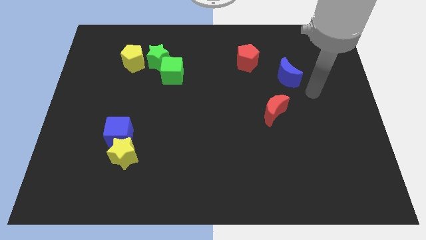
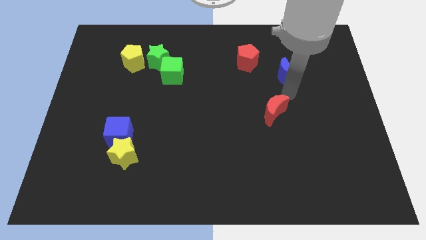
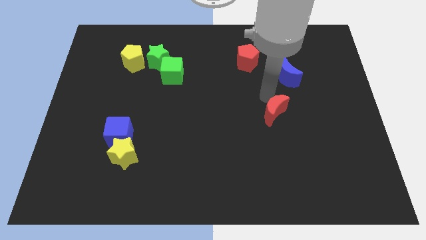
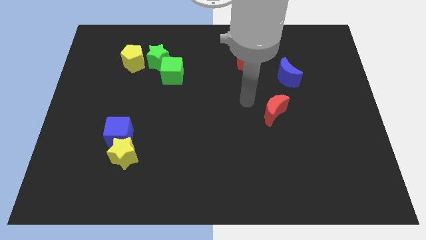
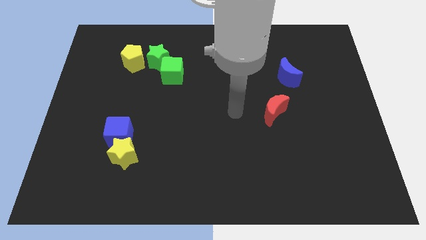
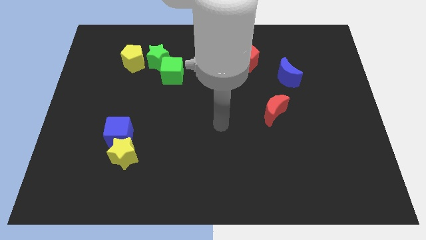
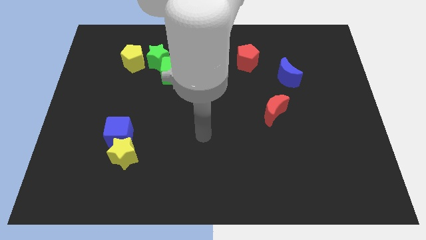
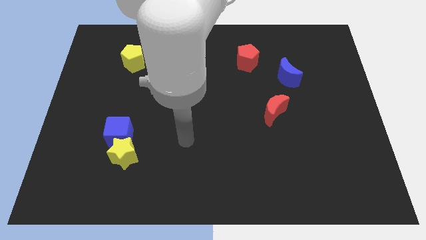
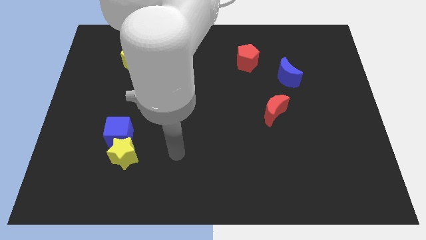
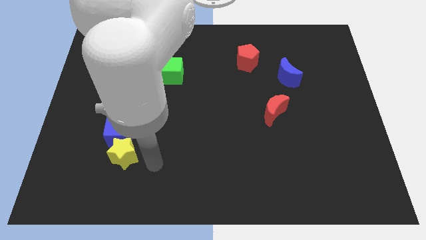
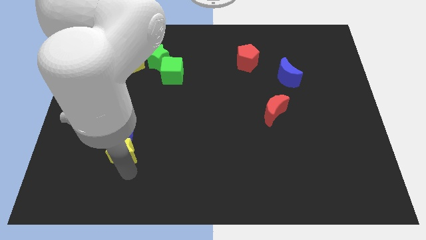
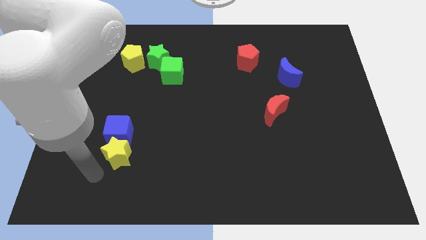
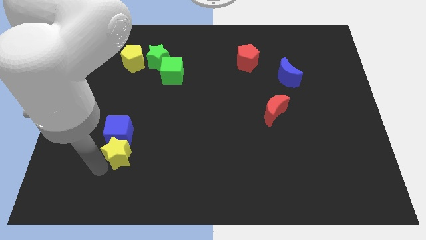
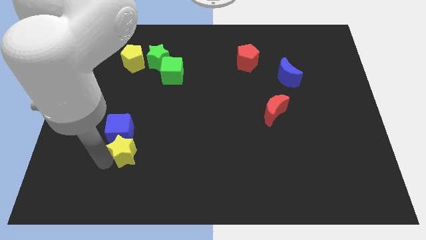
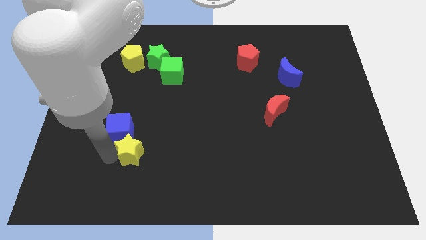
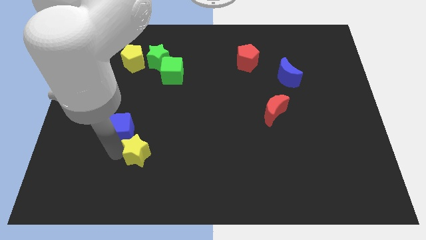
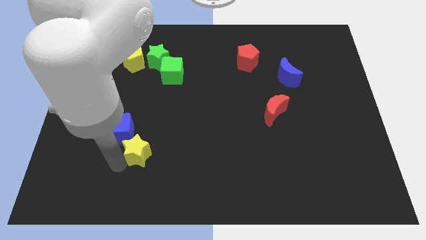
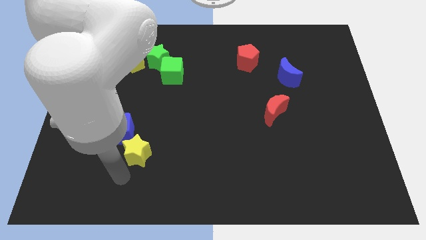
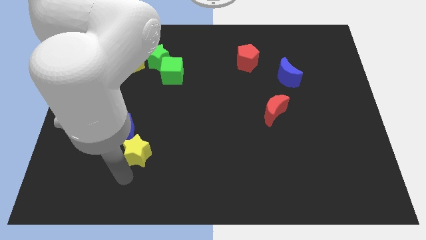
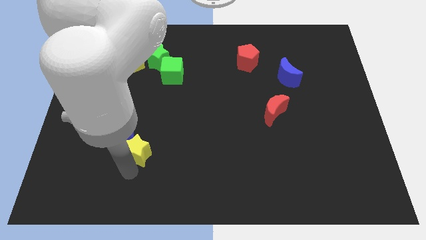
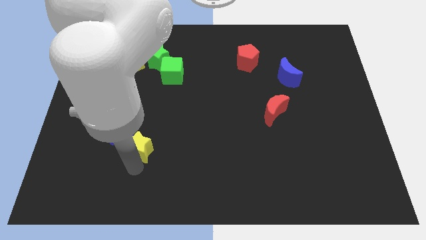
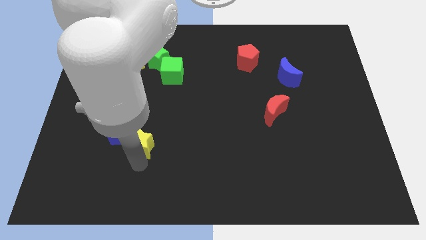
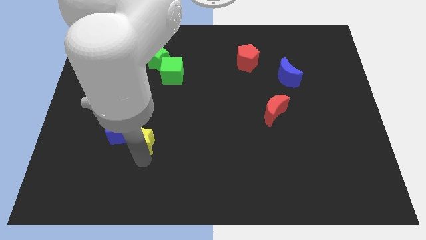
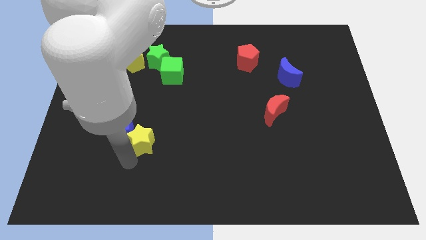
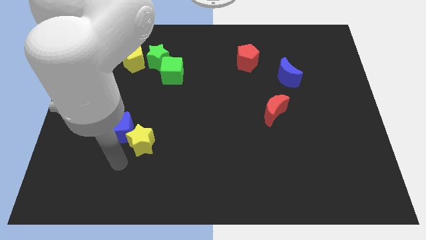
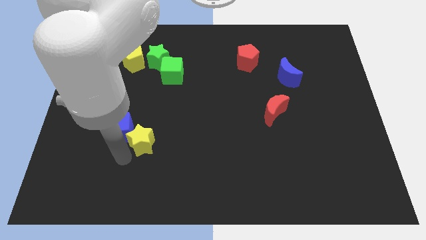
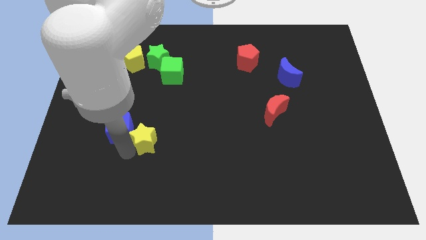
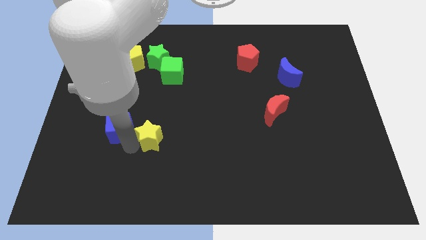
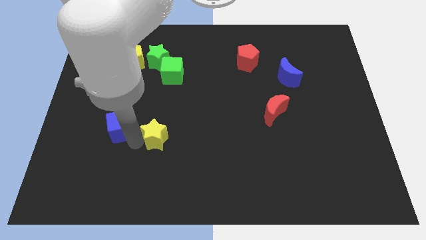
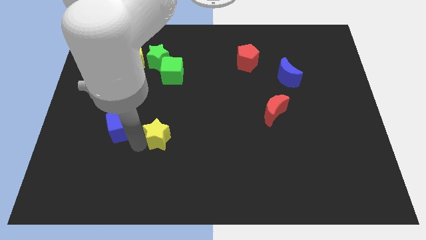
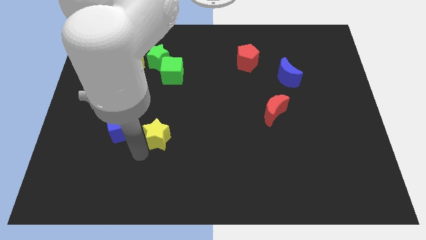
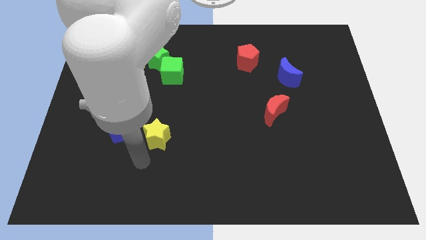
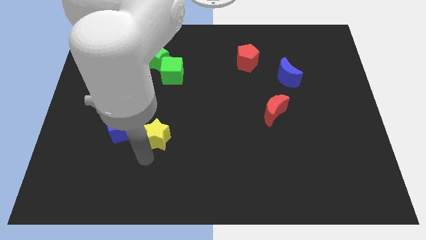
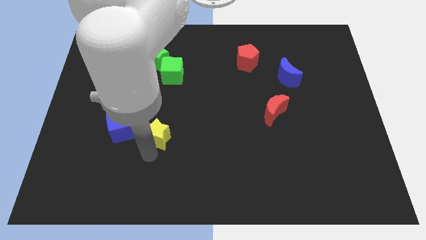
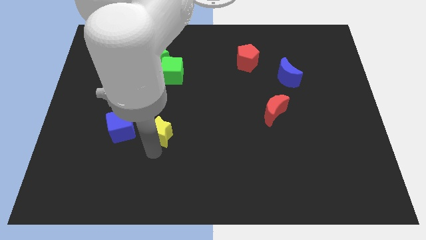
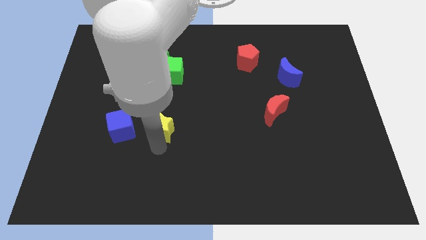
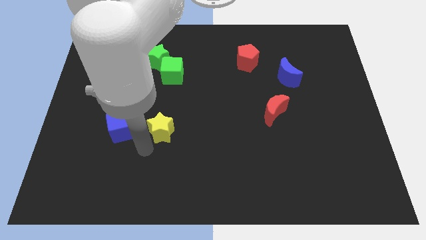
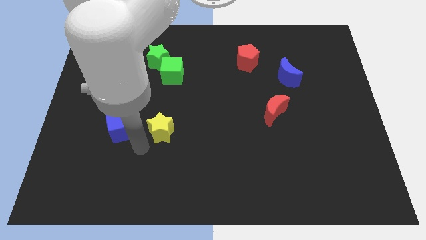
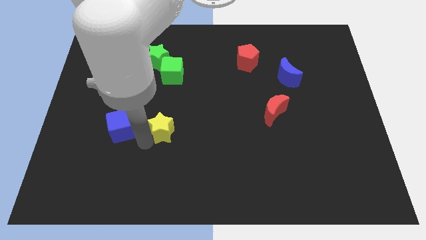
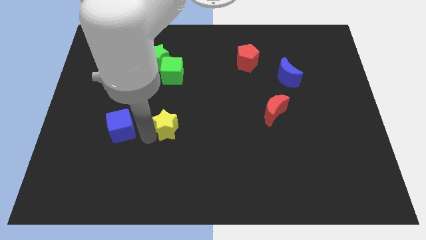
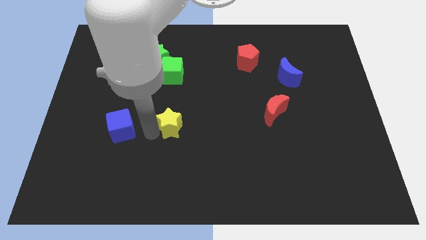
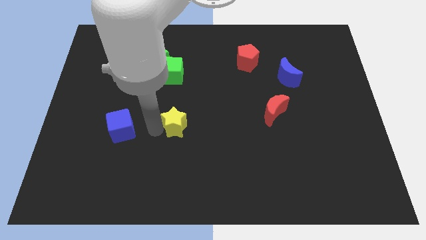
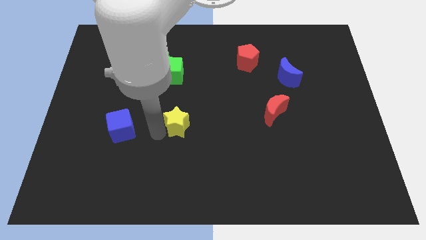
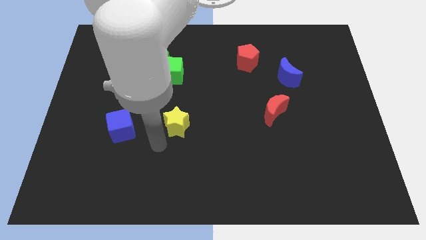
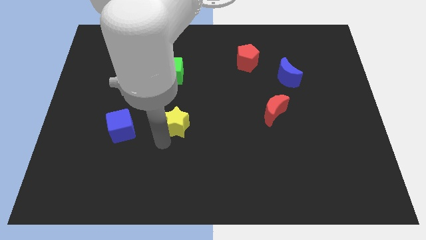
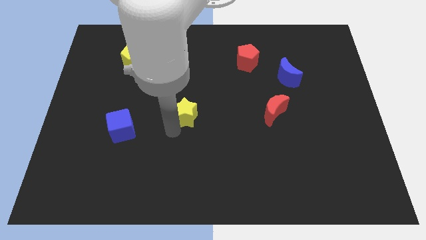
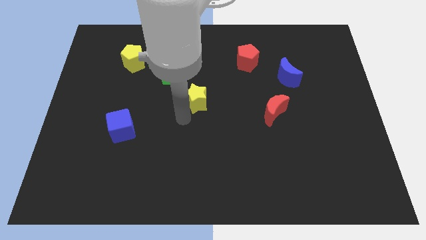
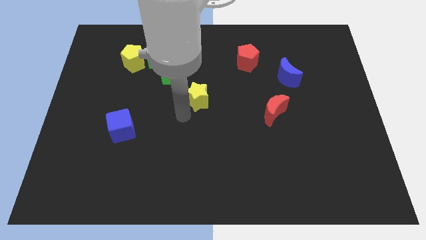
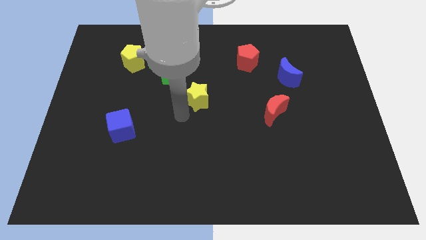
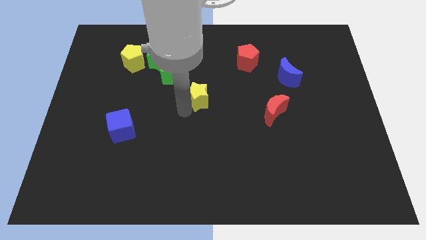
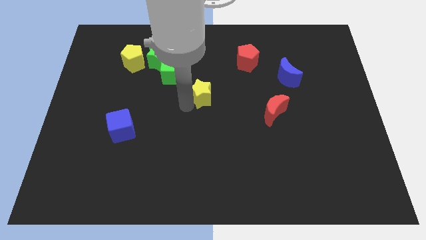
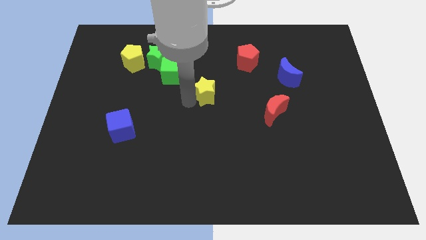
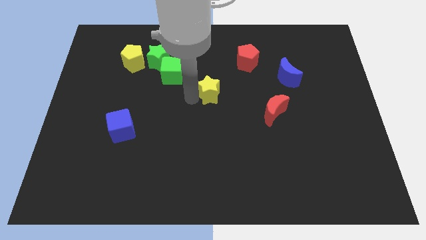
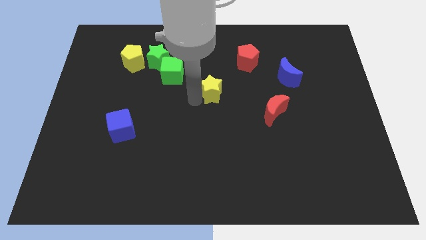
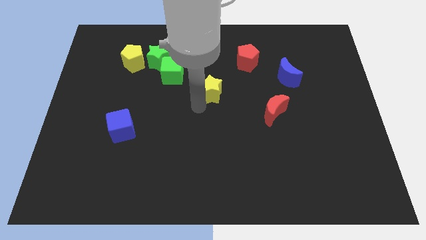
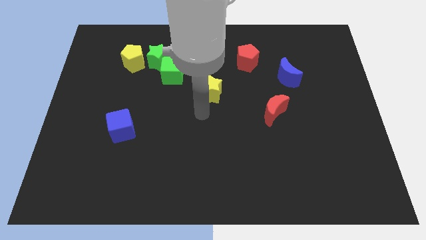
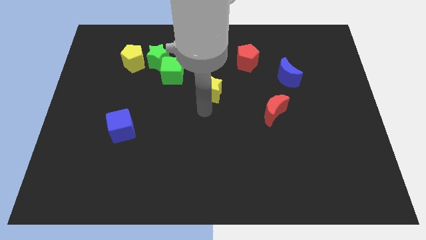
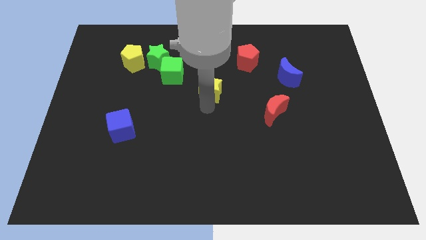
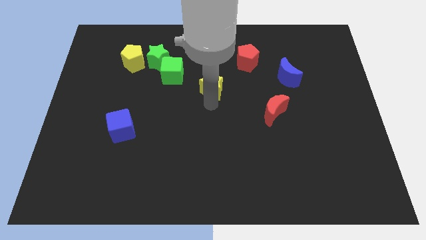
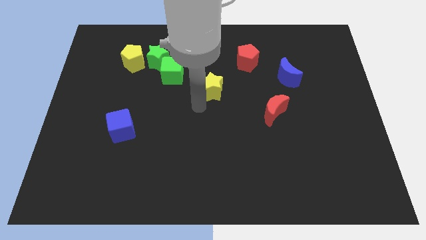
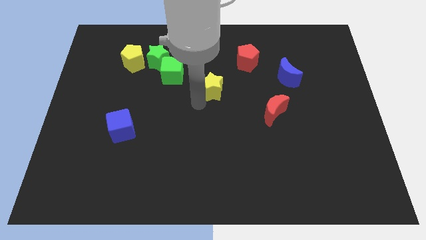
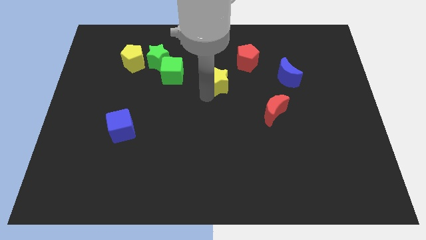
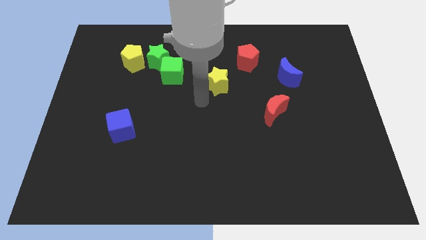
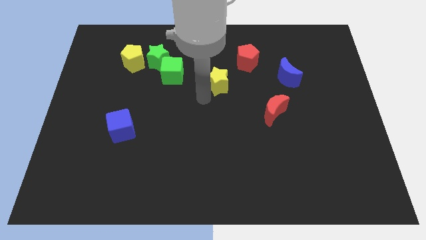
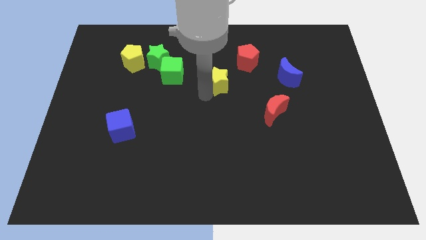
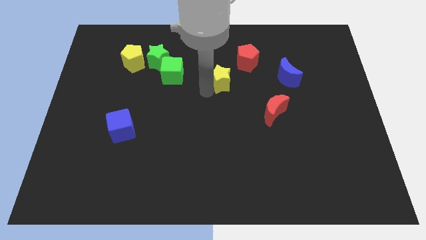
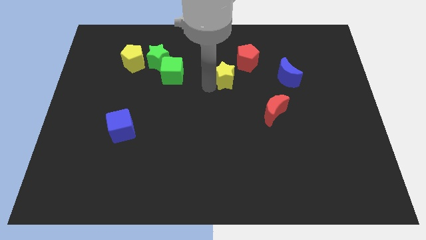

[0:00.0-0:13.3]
slide the yellow star left of the blue moon

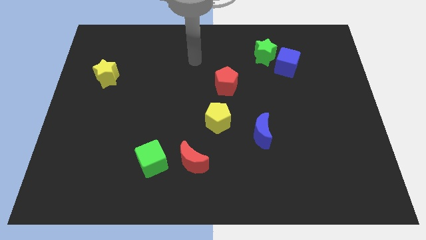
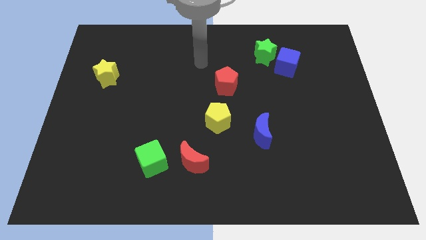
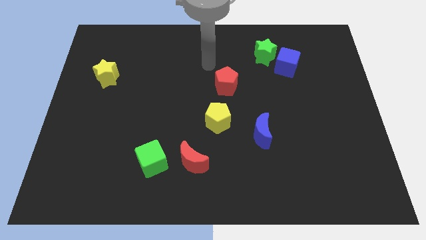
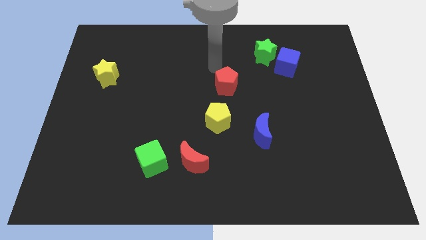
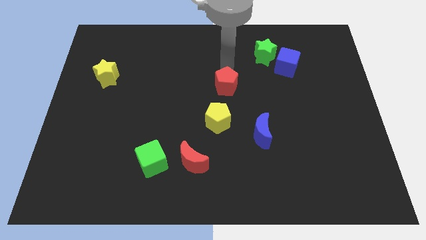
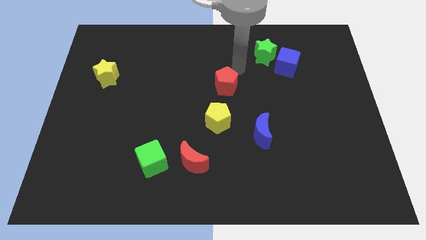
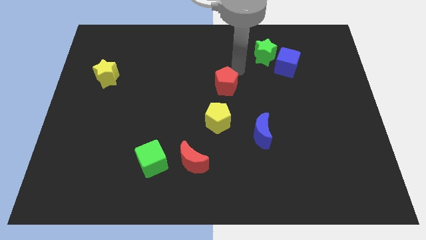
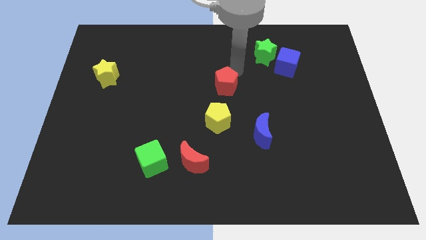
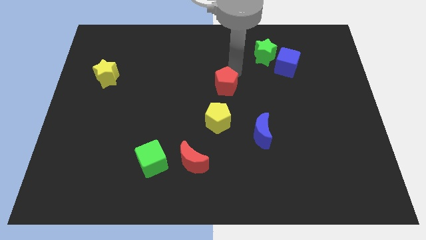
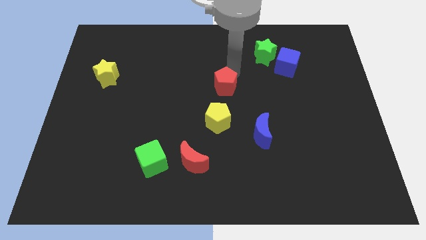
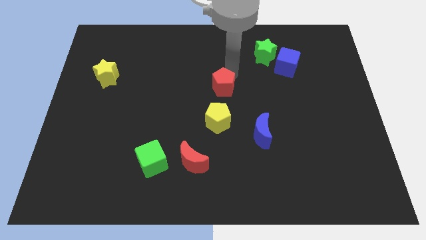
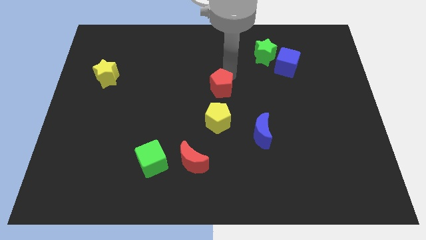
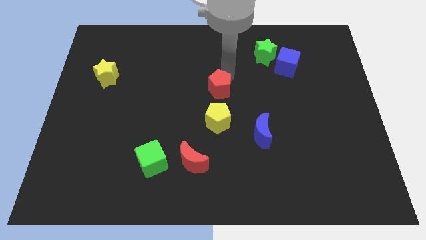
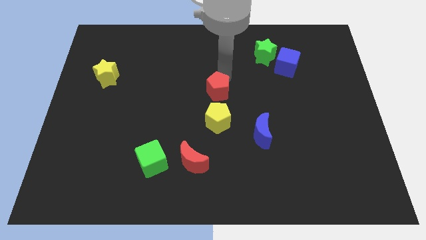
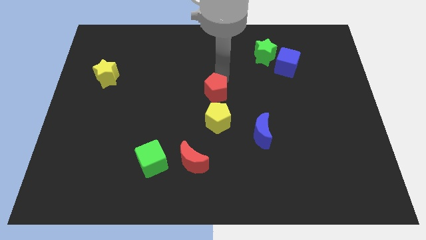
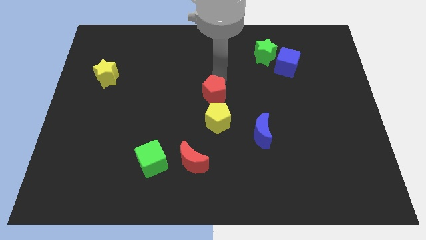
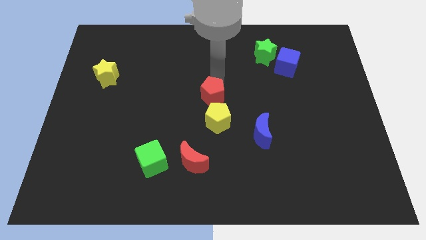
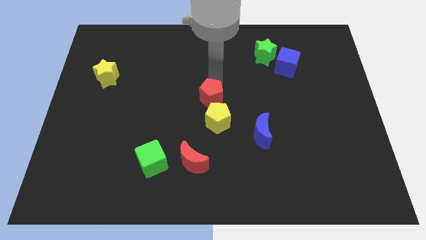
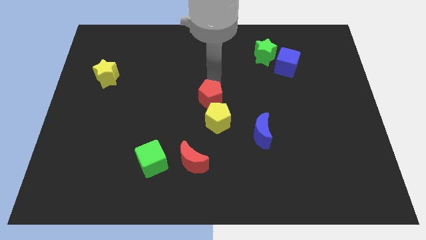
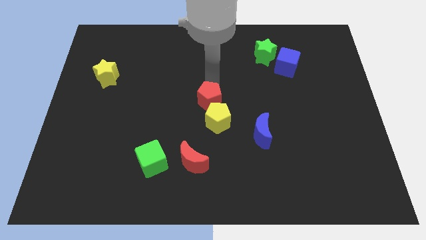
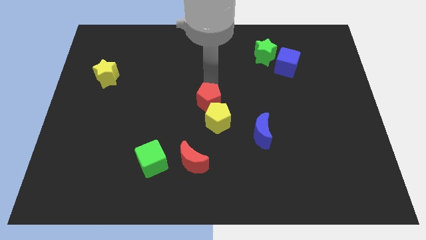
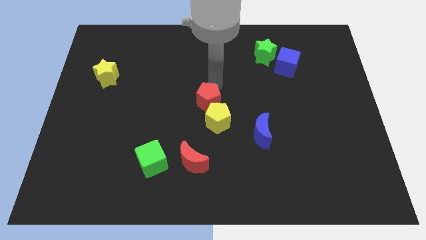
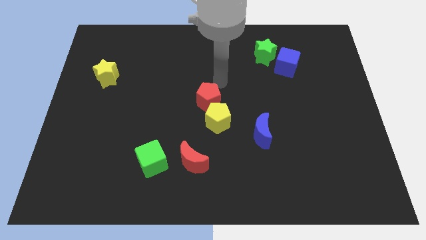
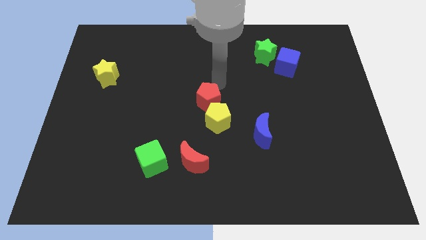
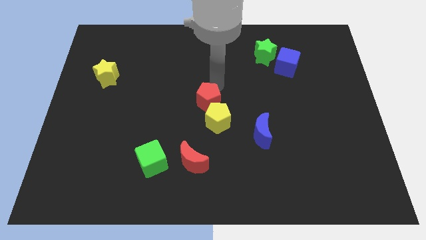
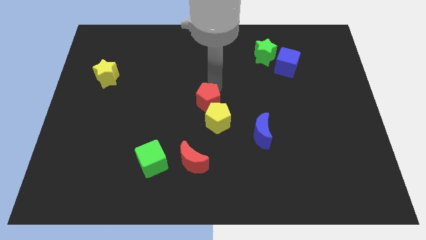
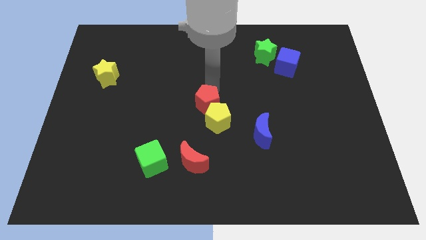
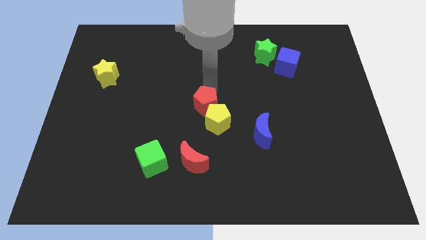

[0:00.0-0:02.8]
slide the red pentagon above the red moon
